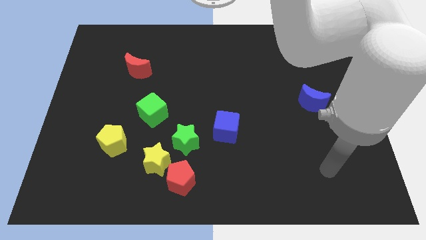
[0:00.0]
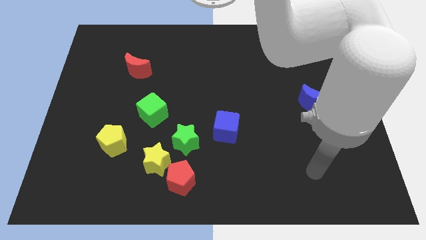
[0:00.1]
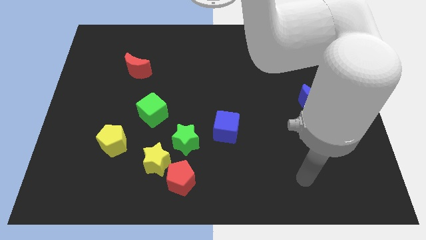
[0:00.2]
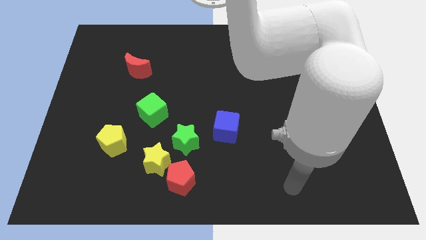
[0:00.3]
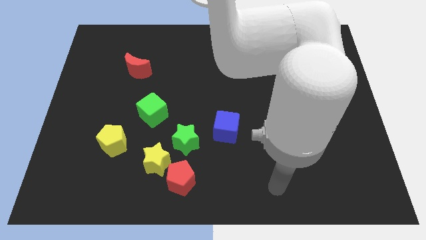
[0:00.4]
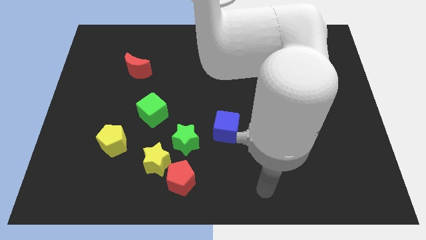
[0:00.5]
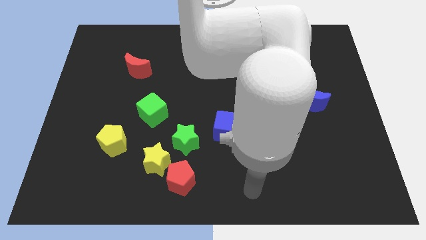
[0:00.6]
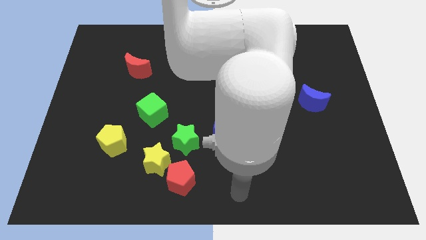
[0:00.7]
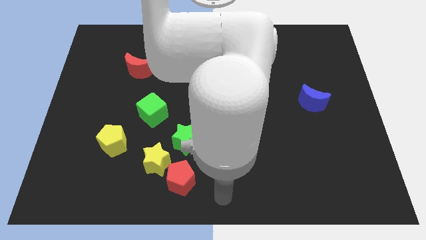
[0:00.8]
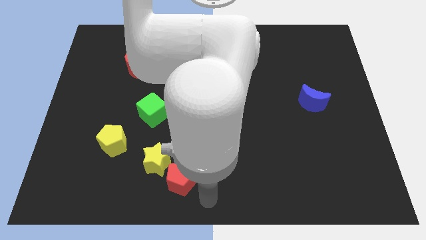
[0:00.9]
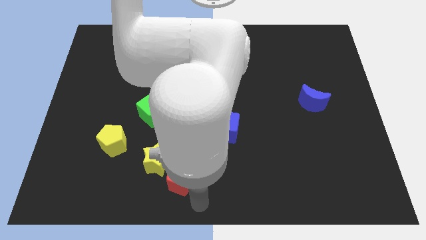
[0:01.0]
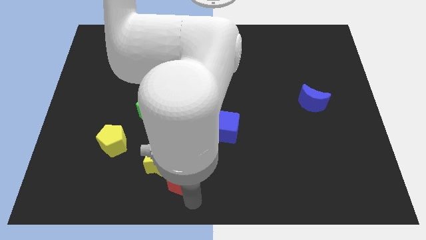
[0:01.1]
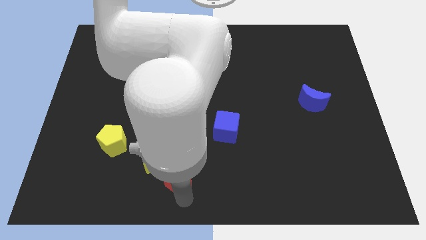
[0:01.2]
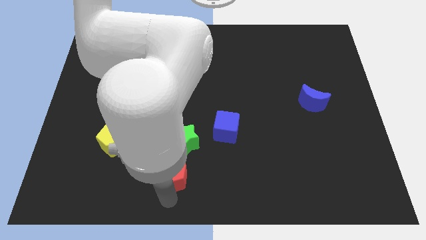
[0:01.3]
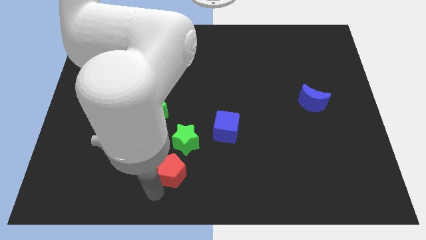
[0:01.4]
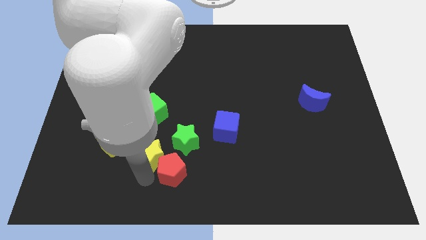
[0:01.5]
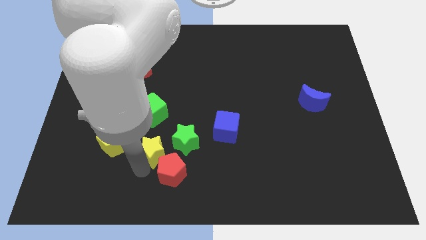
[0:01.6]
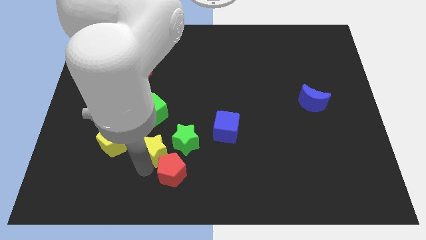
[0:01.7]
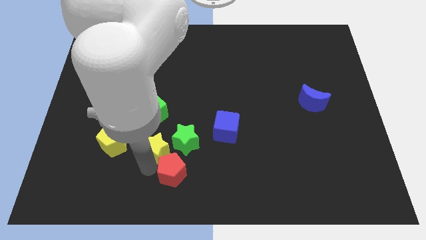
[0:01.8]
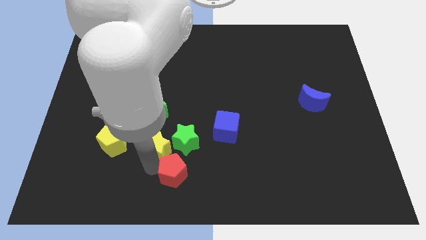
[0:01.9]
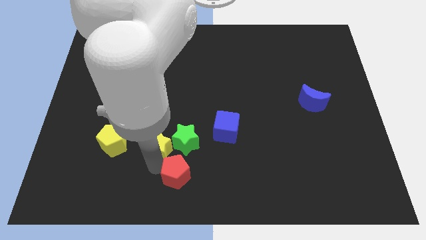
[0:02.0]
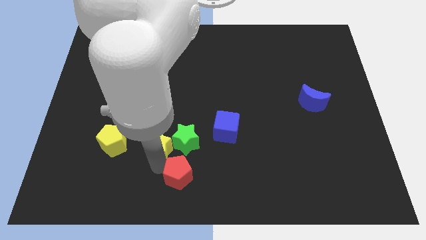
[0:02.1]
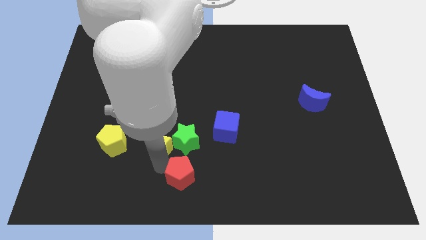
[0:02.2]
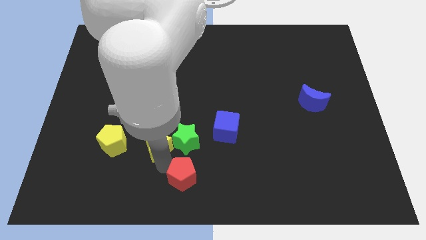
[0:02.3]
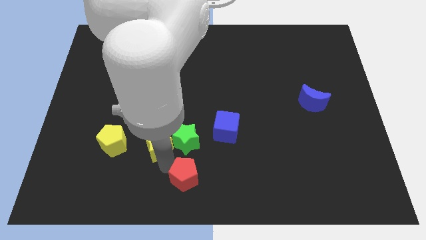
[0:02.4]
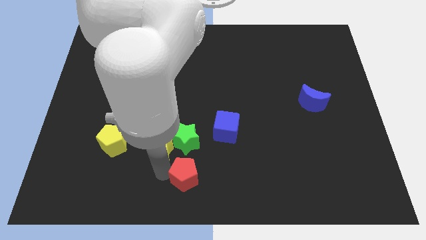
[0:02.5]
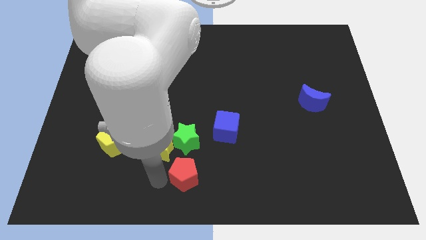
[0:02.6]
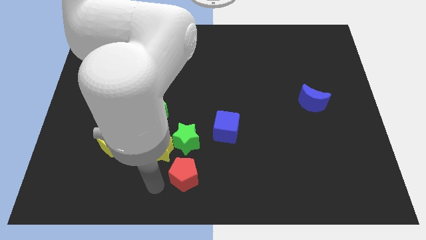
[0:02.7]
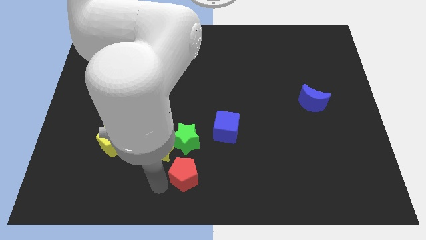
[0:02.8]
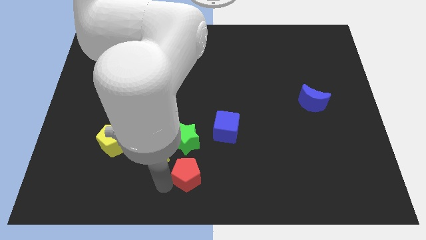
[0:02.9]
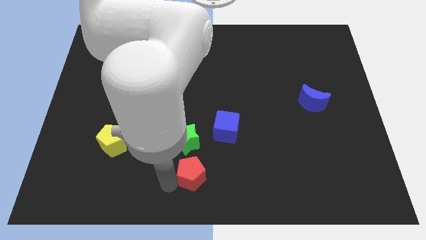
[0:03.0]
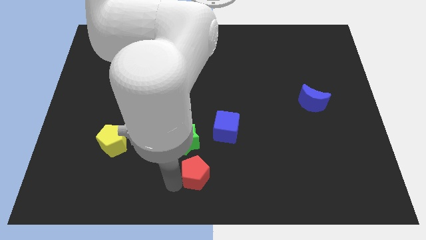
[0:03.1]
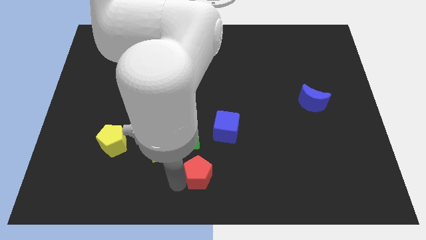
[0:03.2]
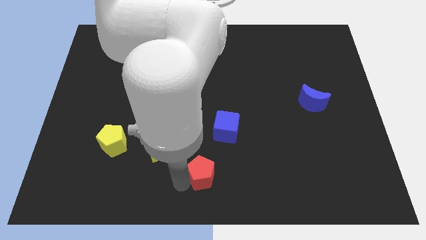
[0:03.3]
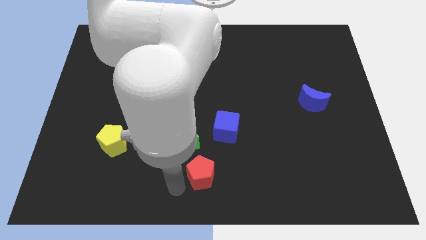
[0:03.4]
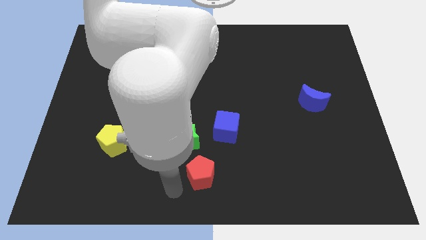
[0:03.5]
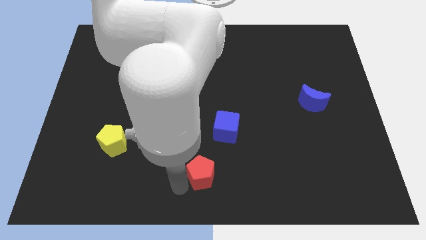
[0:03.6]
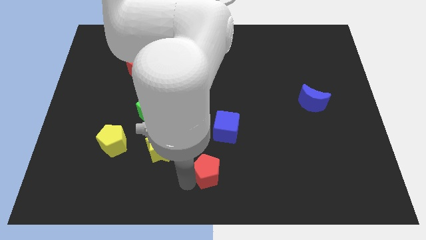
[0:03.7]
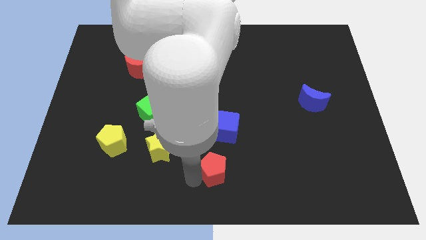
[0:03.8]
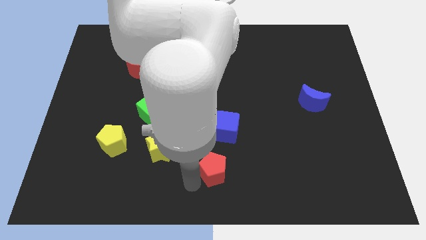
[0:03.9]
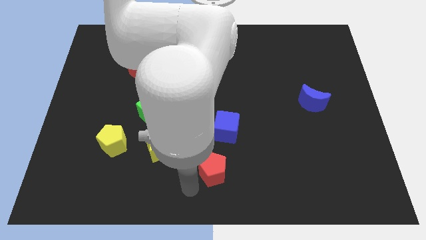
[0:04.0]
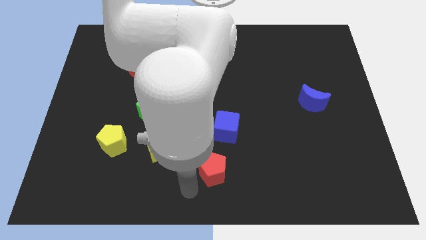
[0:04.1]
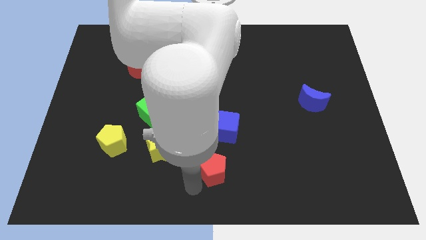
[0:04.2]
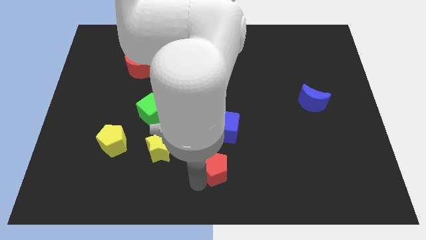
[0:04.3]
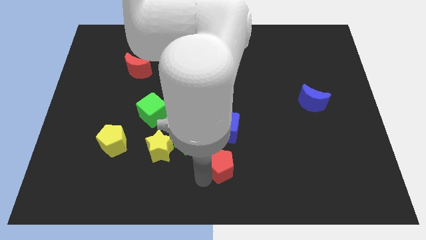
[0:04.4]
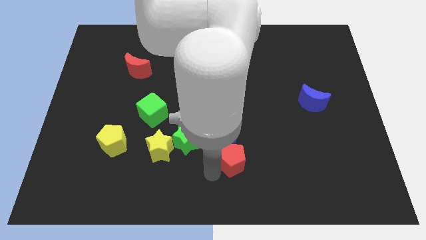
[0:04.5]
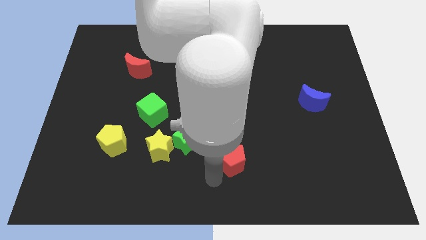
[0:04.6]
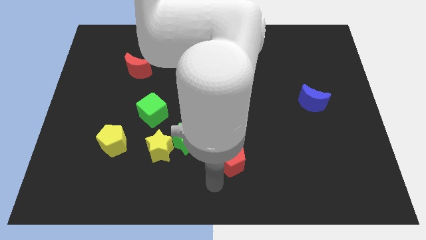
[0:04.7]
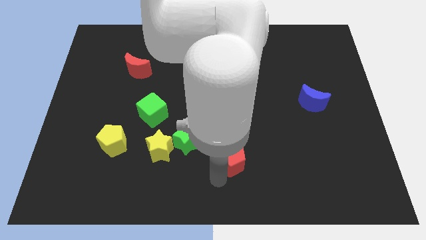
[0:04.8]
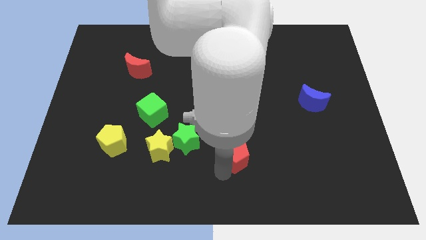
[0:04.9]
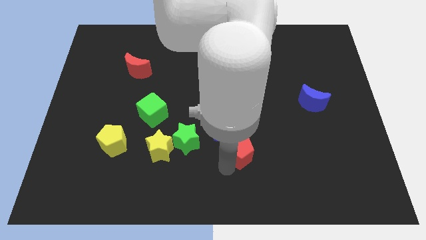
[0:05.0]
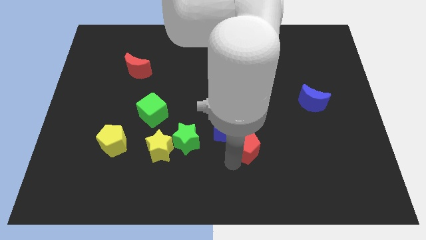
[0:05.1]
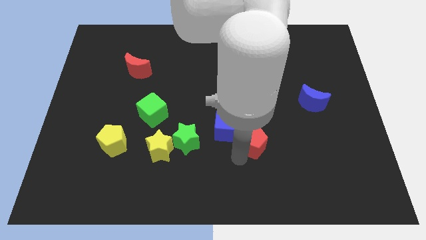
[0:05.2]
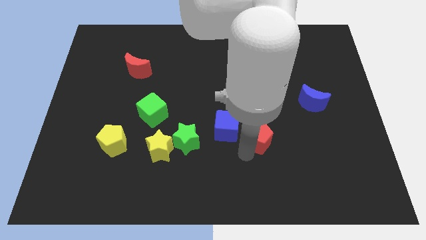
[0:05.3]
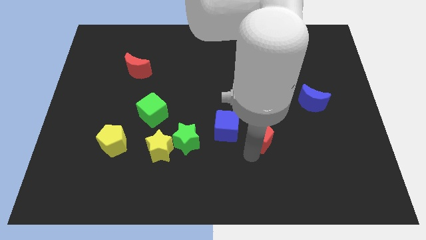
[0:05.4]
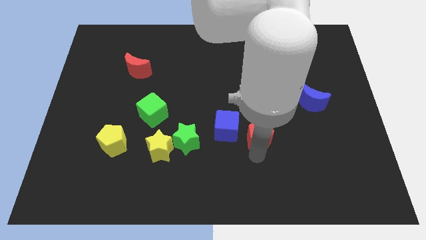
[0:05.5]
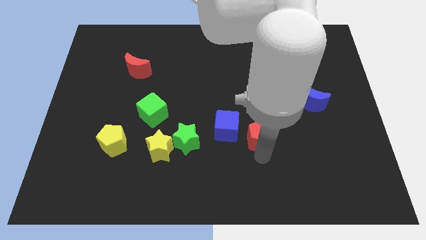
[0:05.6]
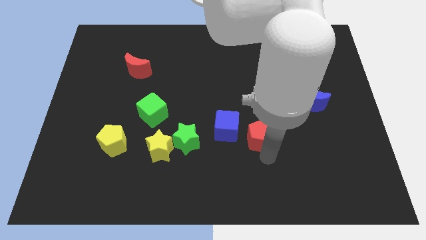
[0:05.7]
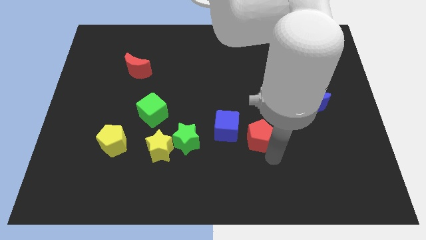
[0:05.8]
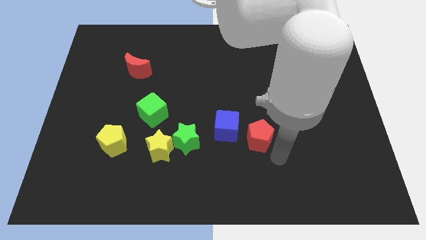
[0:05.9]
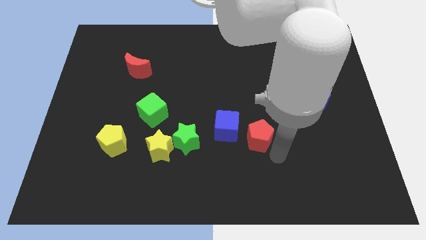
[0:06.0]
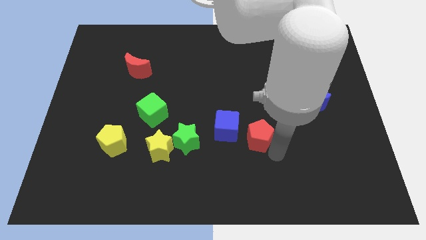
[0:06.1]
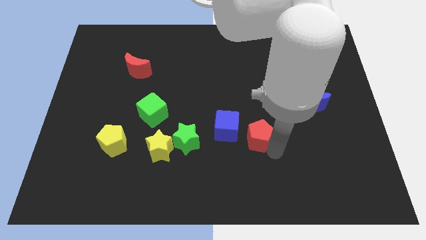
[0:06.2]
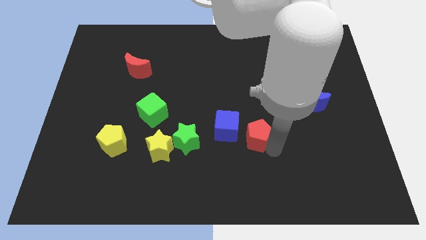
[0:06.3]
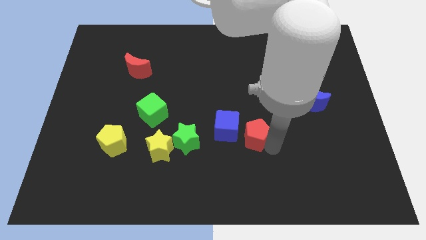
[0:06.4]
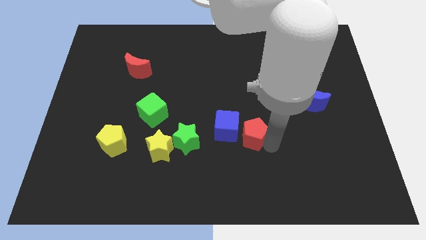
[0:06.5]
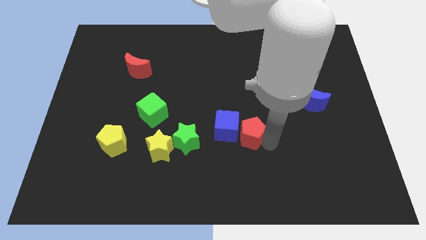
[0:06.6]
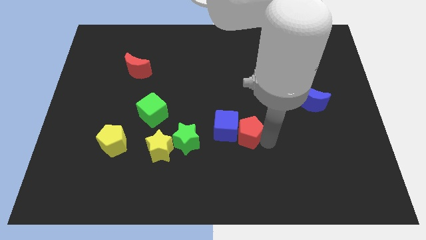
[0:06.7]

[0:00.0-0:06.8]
push the red pentagon to the center of the board
